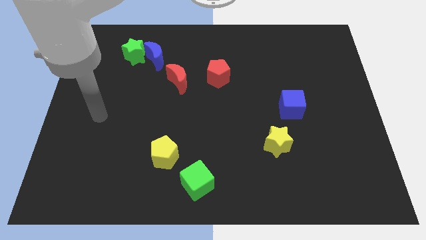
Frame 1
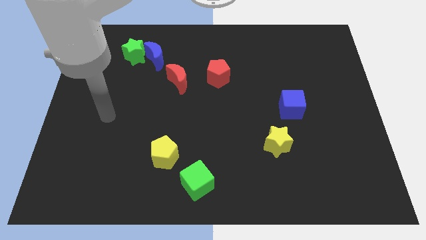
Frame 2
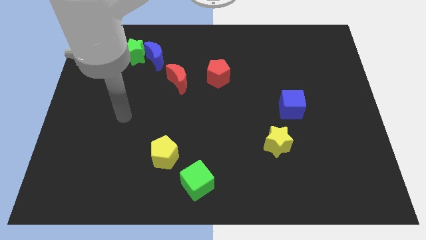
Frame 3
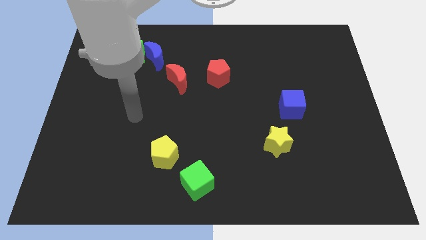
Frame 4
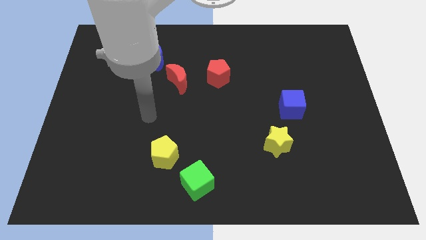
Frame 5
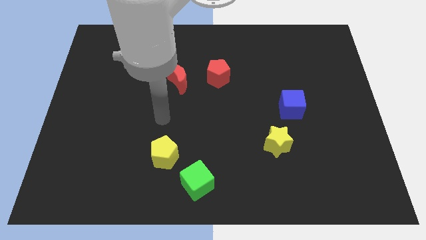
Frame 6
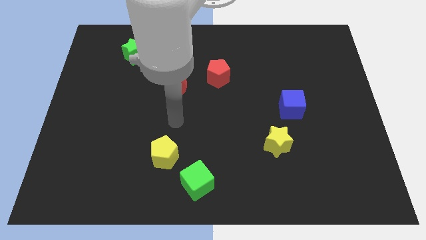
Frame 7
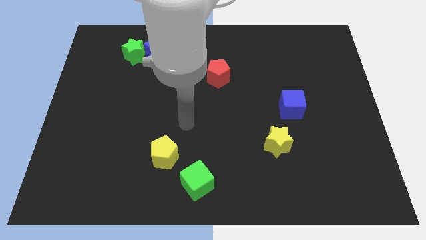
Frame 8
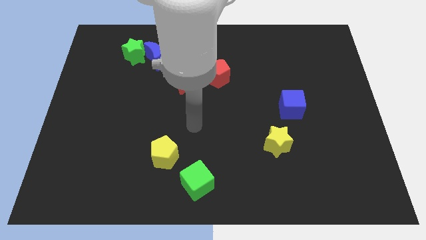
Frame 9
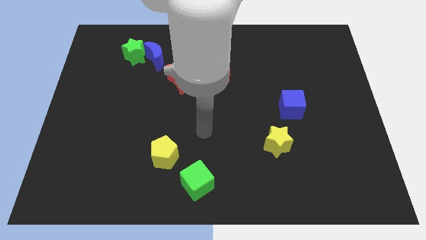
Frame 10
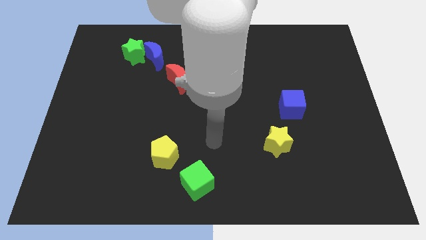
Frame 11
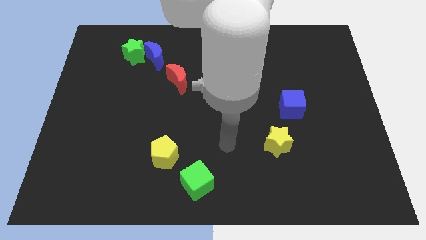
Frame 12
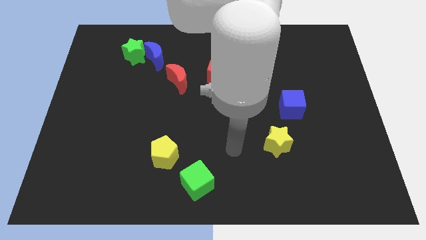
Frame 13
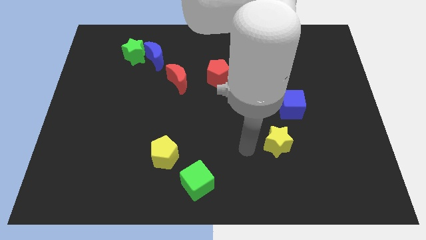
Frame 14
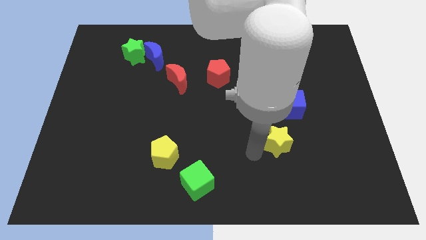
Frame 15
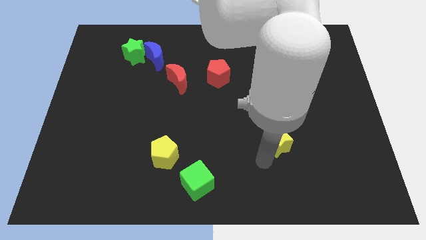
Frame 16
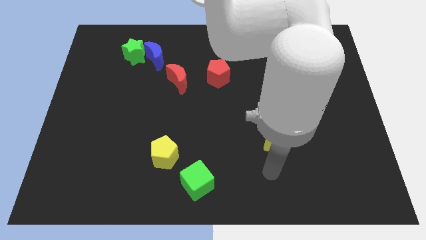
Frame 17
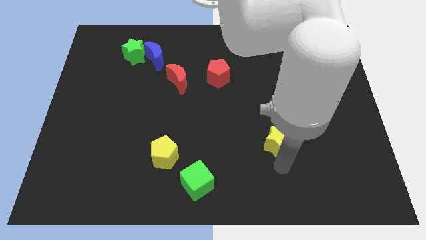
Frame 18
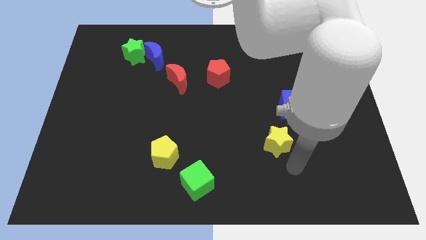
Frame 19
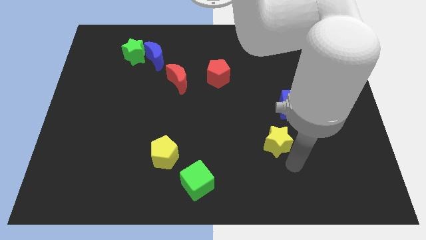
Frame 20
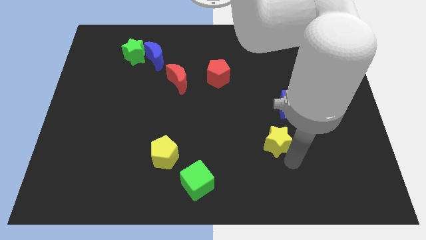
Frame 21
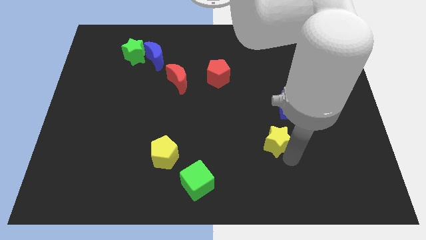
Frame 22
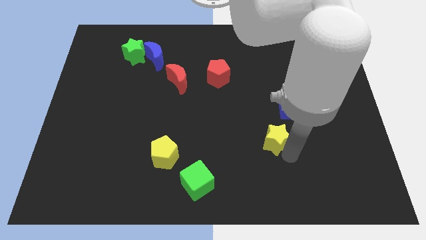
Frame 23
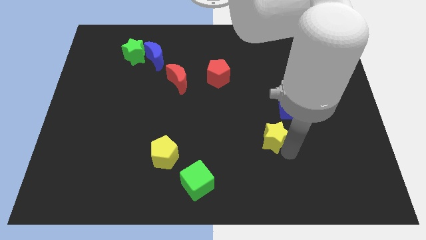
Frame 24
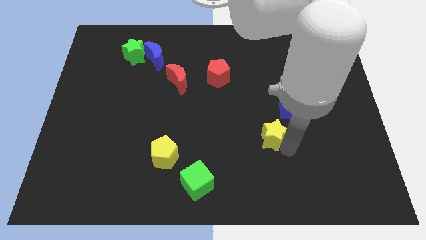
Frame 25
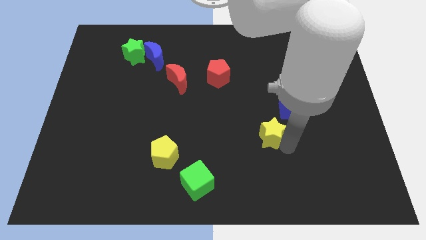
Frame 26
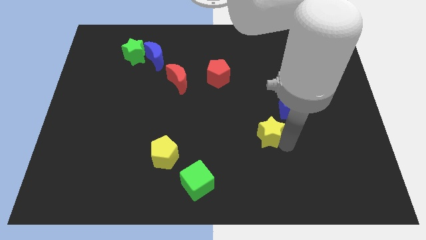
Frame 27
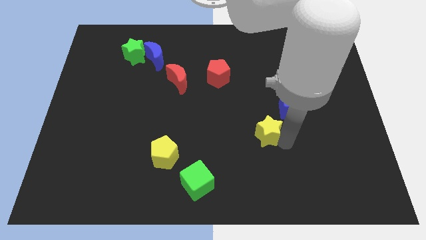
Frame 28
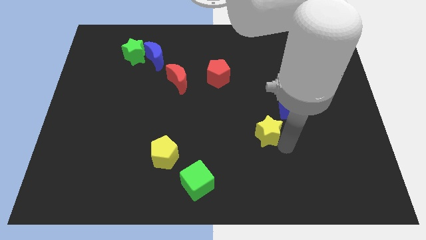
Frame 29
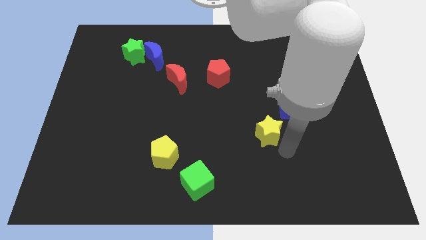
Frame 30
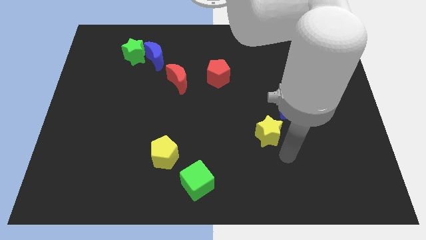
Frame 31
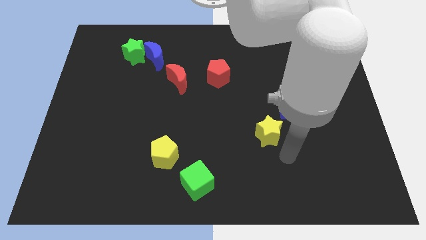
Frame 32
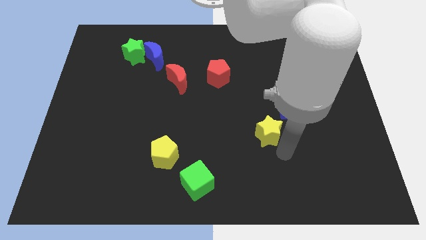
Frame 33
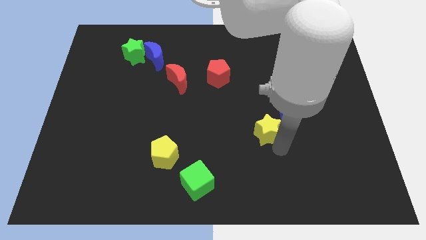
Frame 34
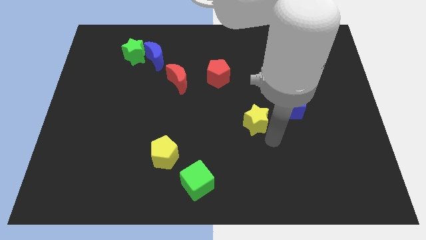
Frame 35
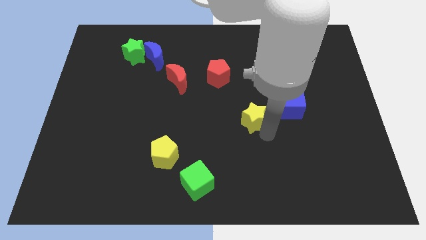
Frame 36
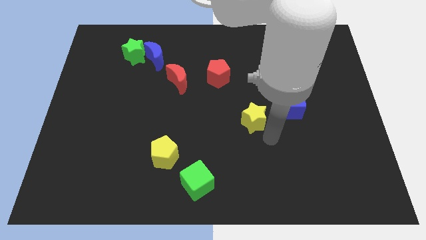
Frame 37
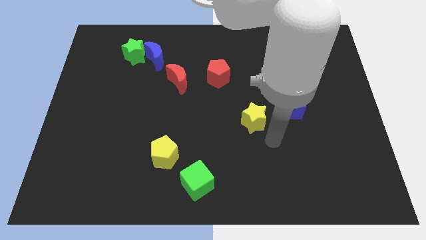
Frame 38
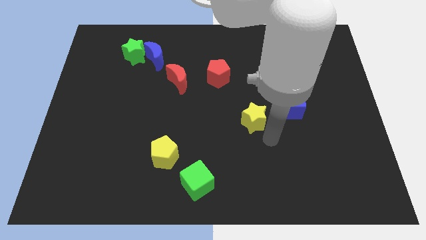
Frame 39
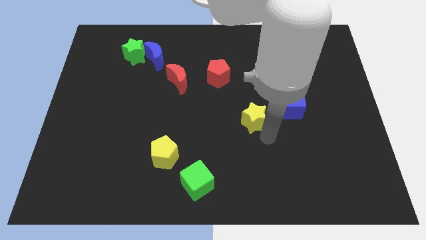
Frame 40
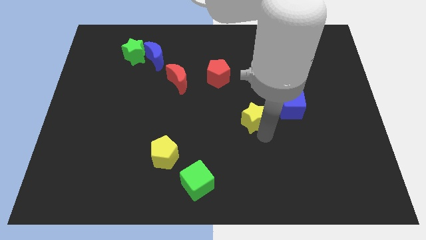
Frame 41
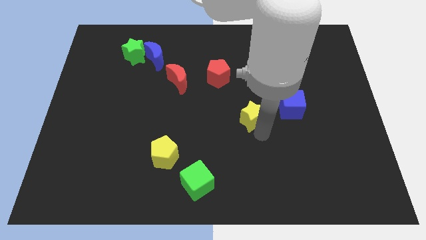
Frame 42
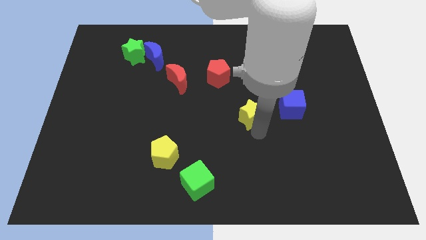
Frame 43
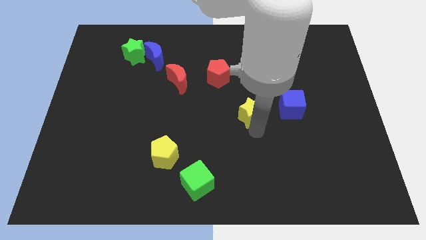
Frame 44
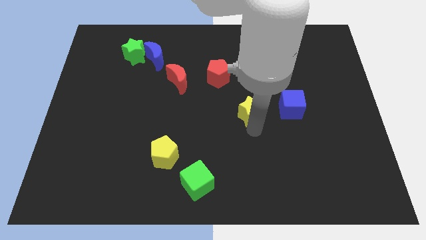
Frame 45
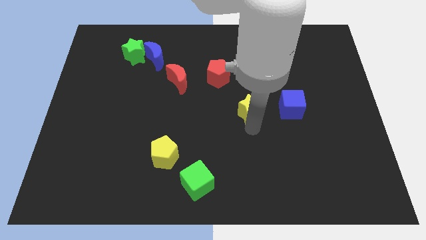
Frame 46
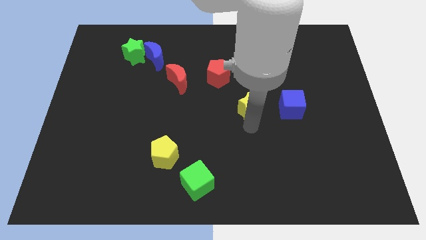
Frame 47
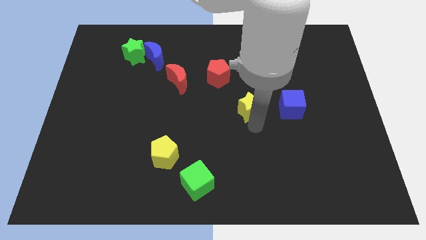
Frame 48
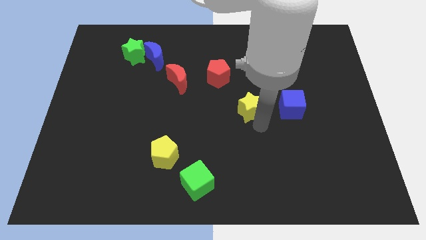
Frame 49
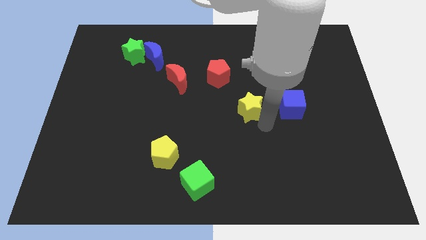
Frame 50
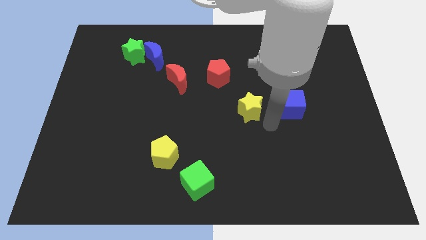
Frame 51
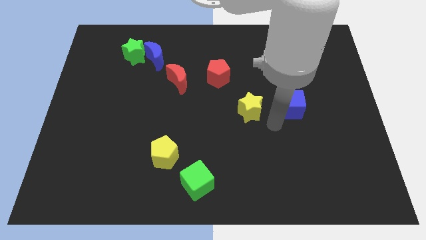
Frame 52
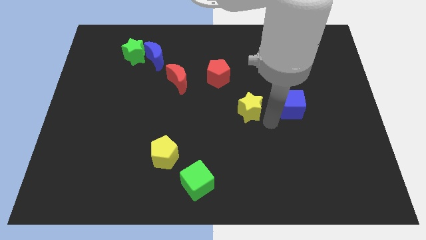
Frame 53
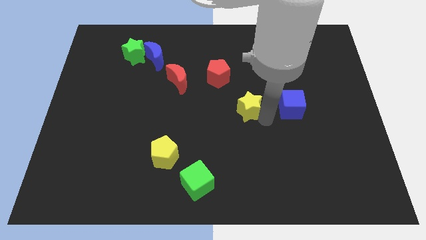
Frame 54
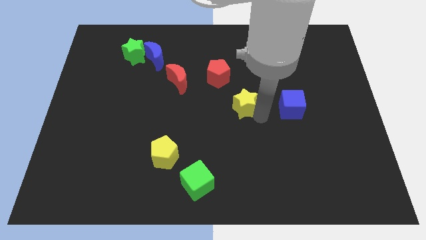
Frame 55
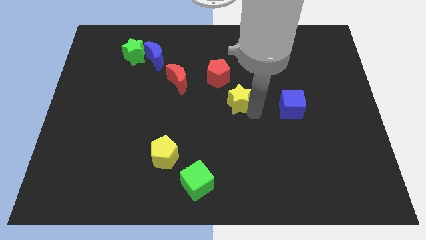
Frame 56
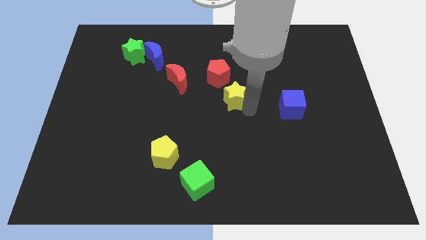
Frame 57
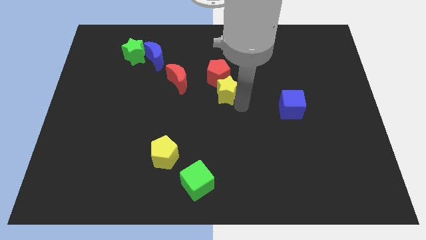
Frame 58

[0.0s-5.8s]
push the yellow star next to the red pentagon
